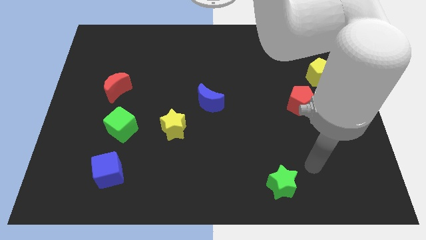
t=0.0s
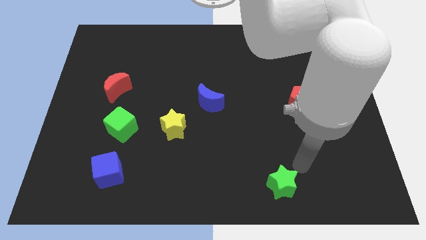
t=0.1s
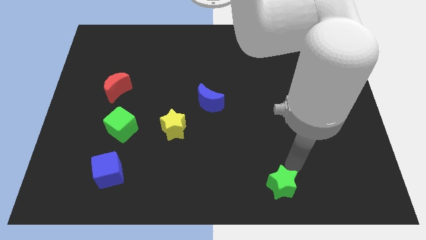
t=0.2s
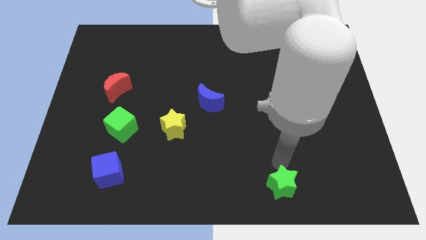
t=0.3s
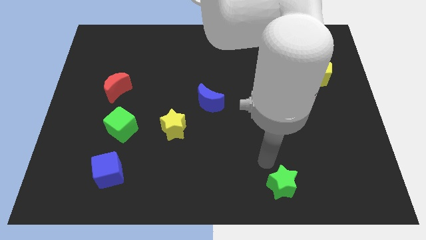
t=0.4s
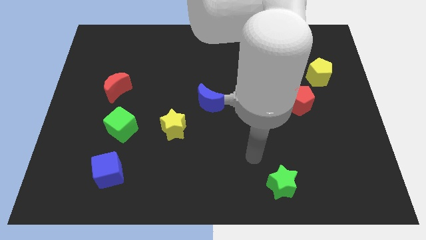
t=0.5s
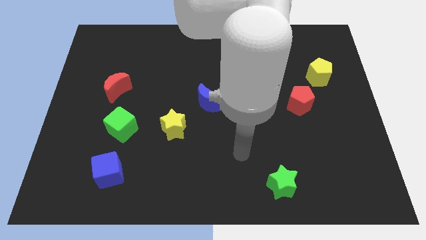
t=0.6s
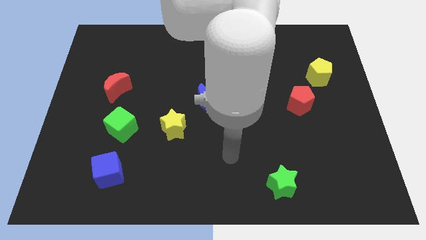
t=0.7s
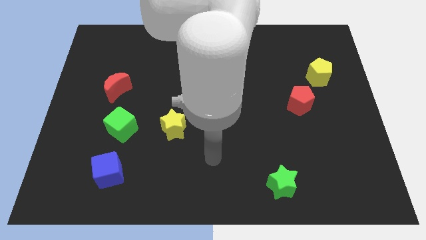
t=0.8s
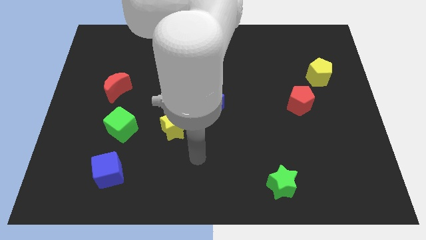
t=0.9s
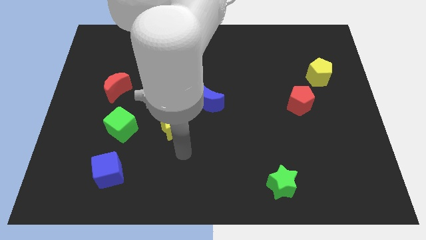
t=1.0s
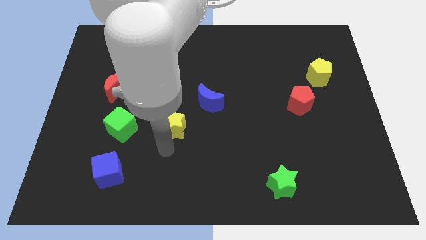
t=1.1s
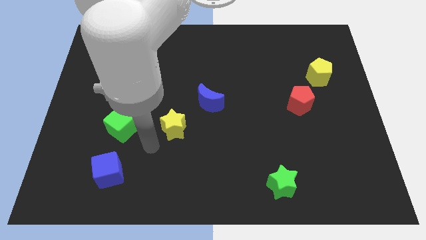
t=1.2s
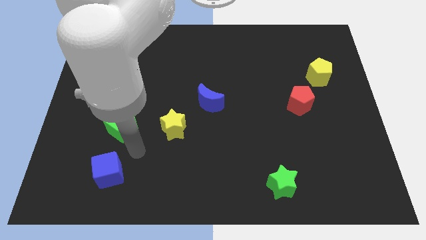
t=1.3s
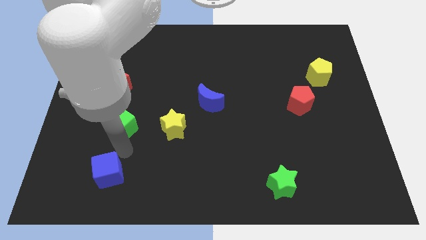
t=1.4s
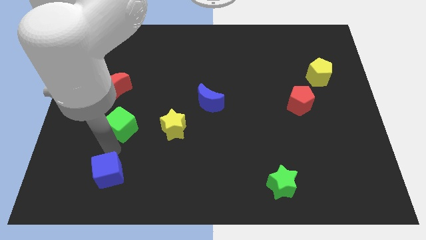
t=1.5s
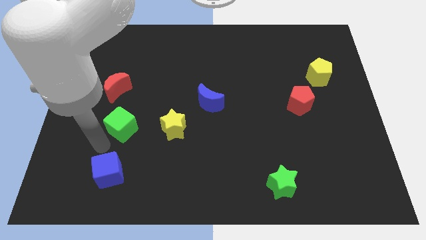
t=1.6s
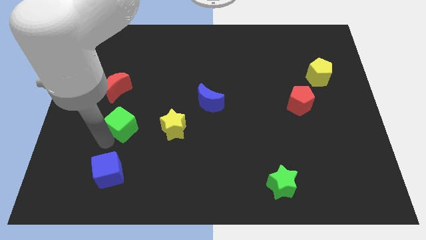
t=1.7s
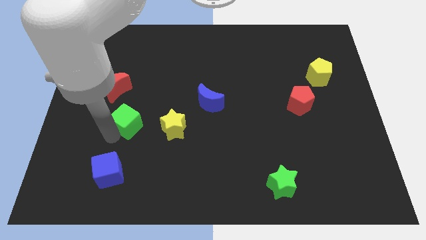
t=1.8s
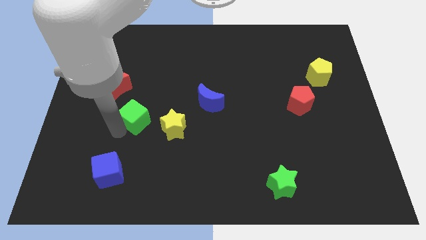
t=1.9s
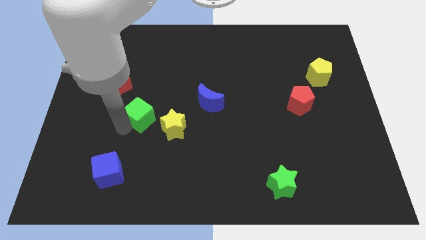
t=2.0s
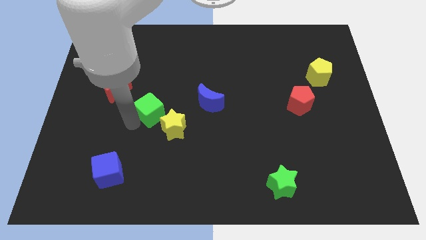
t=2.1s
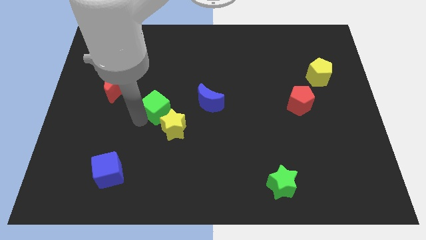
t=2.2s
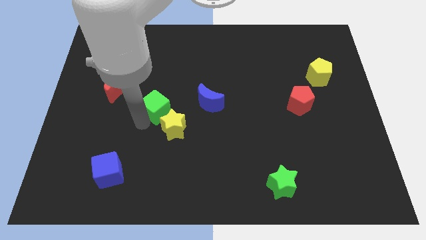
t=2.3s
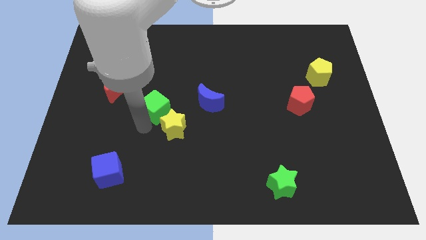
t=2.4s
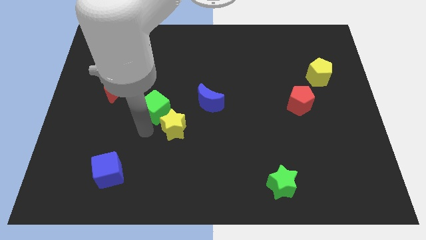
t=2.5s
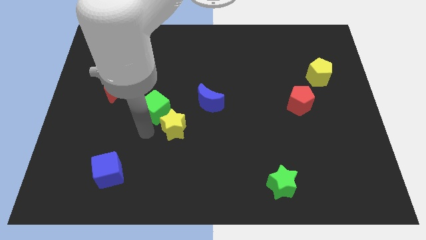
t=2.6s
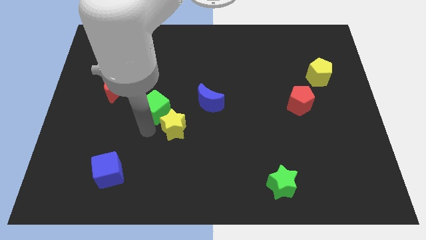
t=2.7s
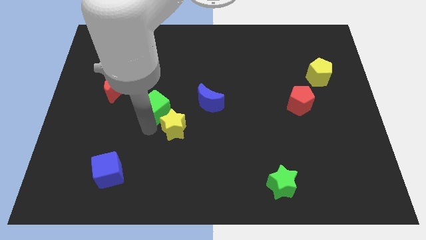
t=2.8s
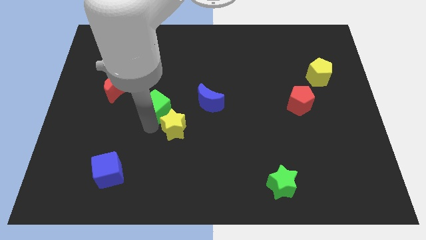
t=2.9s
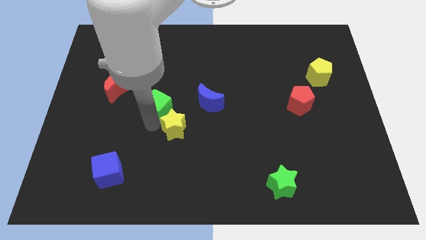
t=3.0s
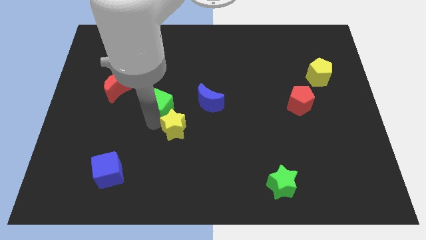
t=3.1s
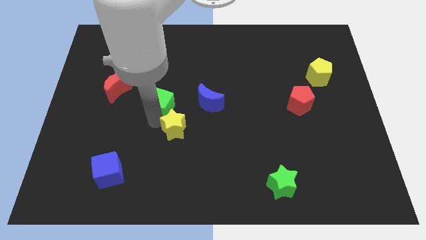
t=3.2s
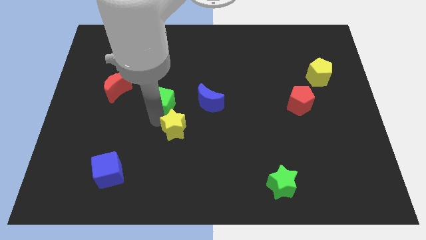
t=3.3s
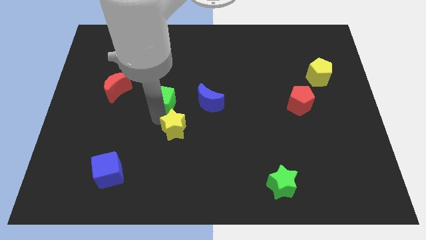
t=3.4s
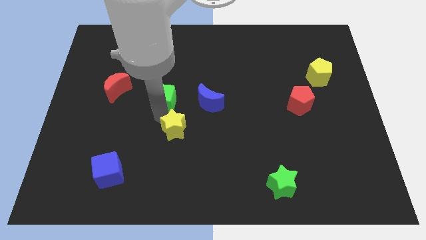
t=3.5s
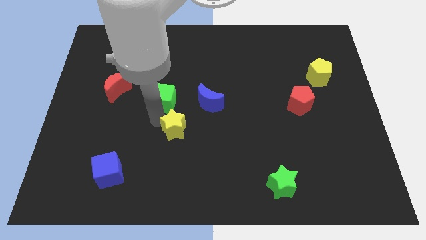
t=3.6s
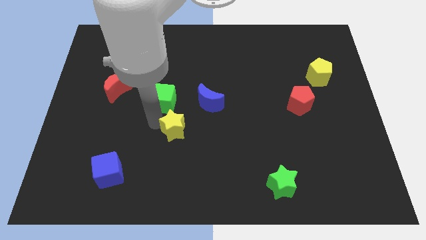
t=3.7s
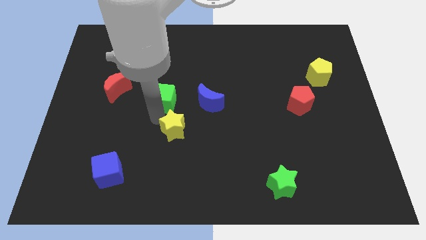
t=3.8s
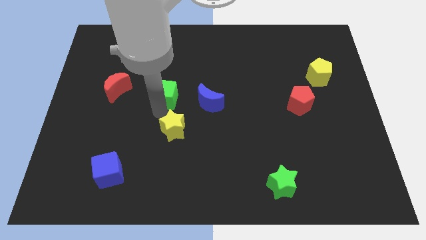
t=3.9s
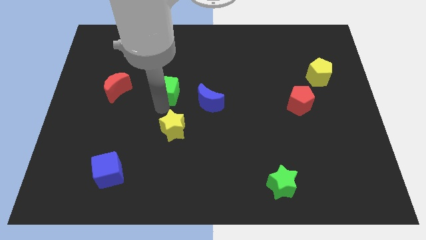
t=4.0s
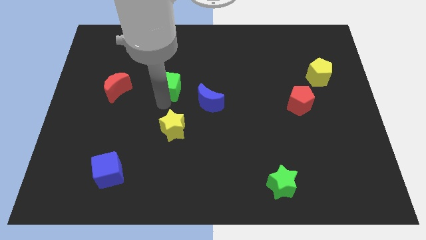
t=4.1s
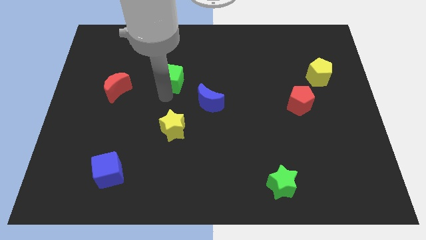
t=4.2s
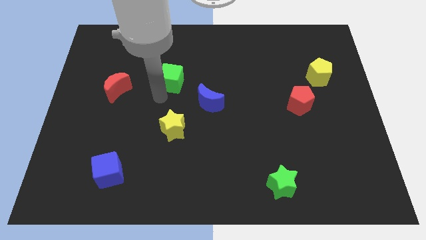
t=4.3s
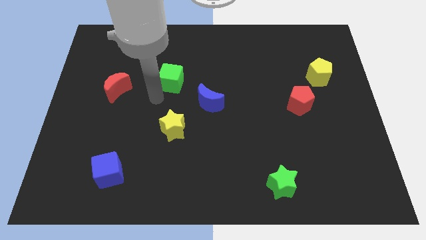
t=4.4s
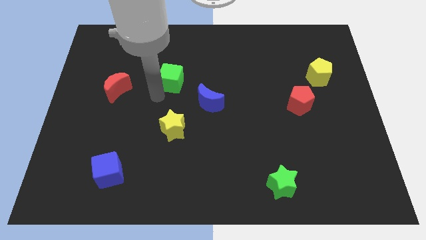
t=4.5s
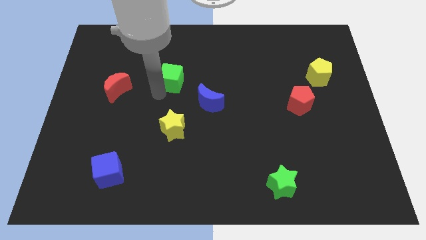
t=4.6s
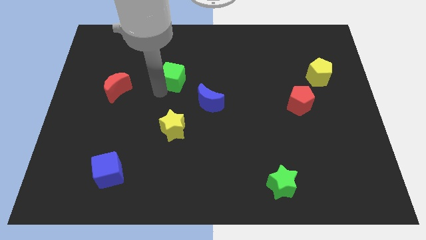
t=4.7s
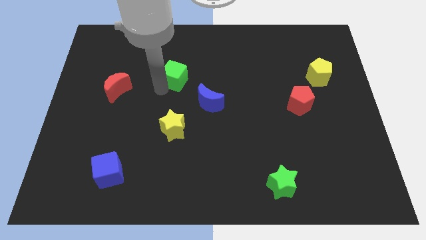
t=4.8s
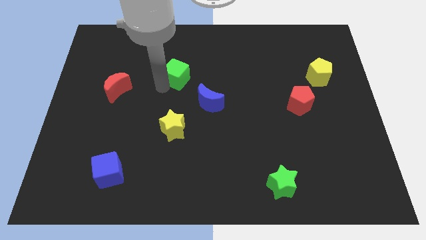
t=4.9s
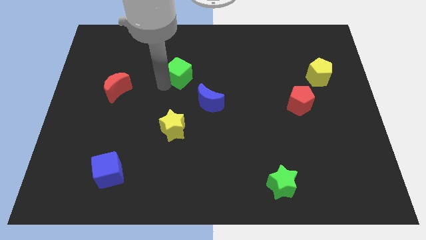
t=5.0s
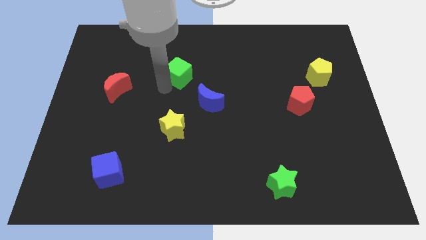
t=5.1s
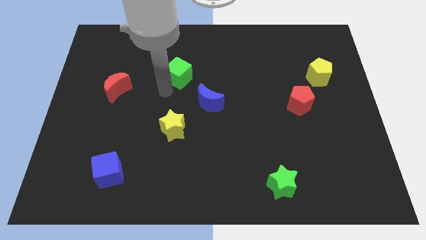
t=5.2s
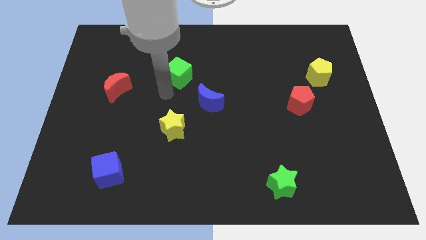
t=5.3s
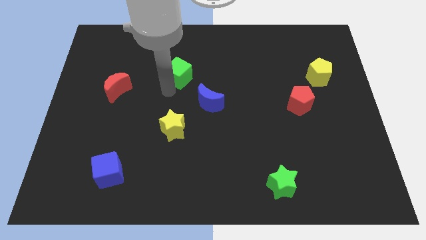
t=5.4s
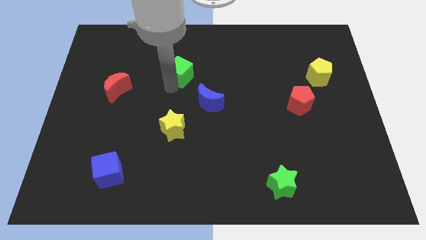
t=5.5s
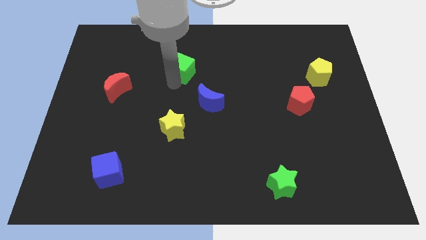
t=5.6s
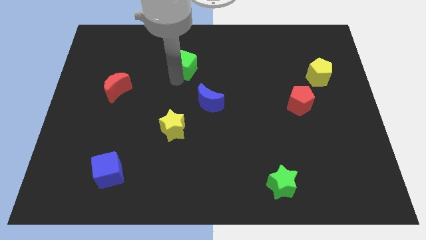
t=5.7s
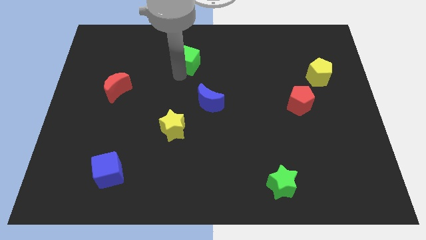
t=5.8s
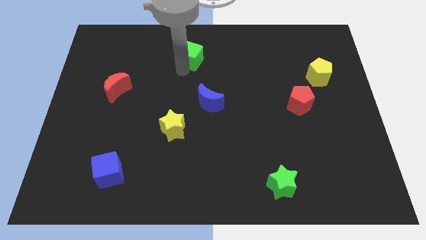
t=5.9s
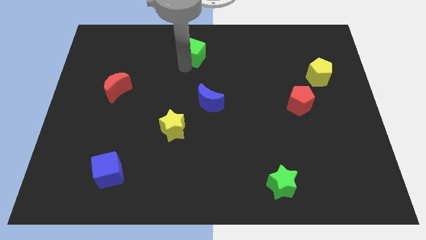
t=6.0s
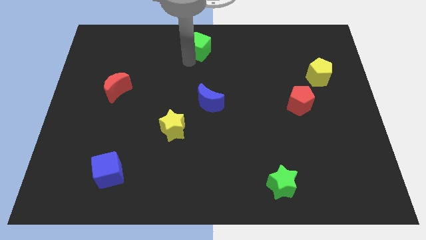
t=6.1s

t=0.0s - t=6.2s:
put the green cube to the top side
